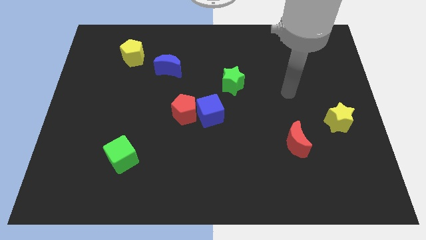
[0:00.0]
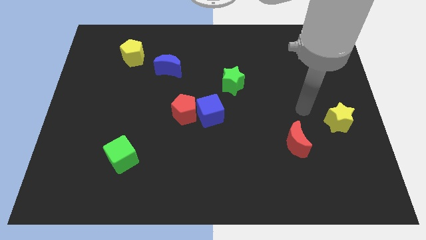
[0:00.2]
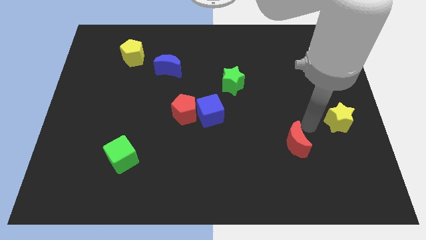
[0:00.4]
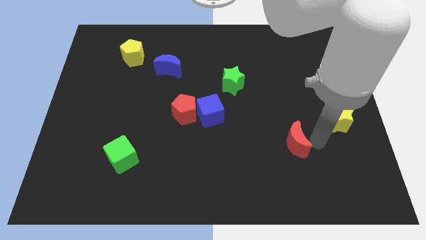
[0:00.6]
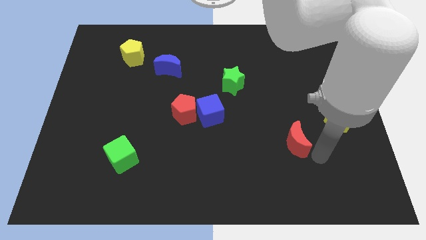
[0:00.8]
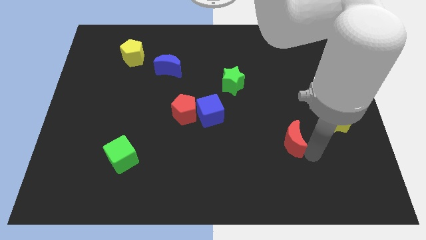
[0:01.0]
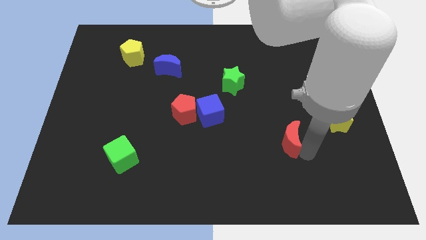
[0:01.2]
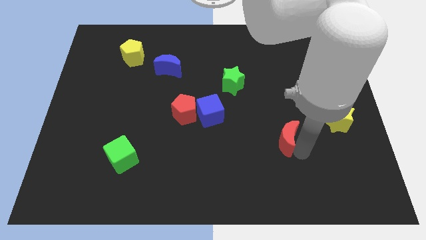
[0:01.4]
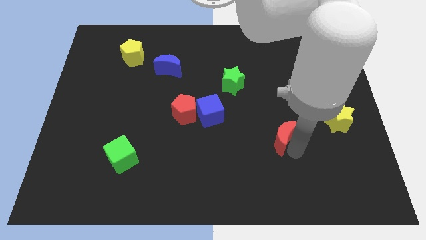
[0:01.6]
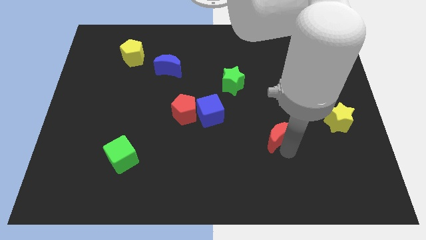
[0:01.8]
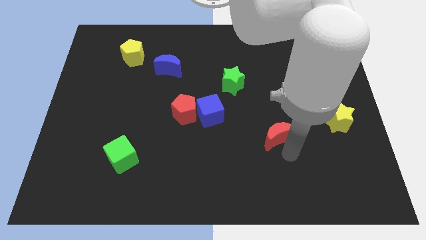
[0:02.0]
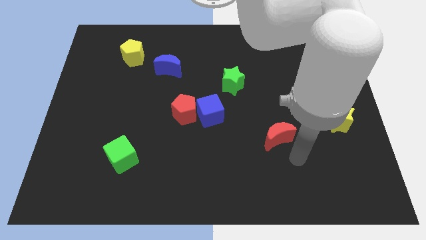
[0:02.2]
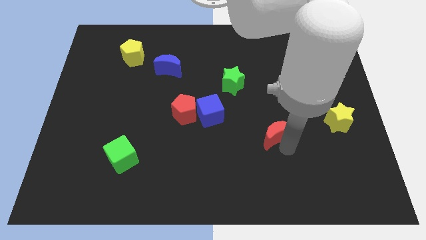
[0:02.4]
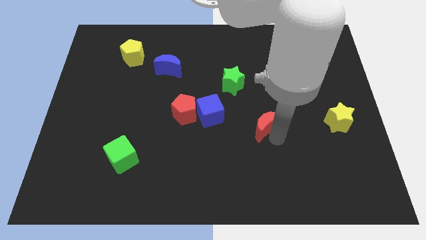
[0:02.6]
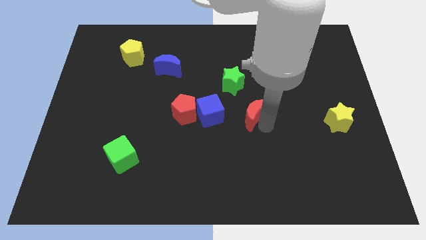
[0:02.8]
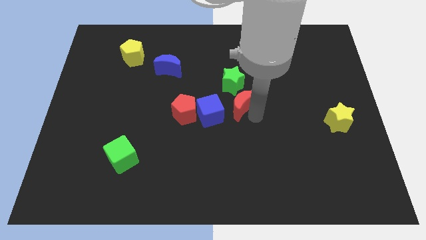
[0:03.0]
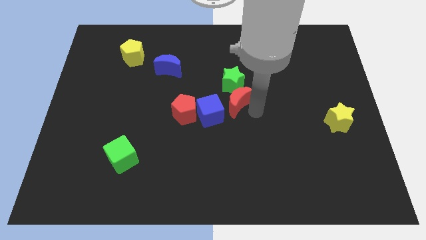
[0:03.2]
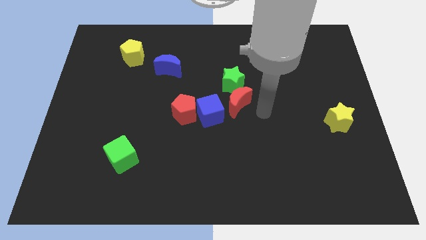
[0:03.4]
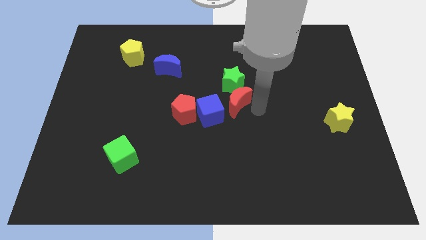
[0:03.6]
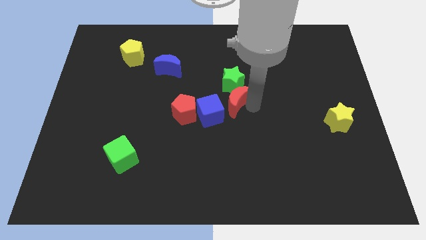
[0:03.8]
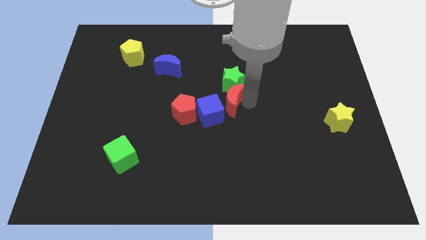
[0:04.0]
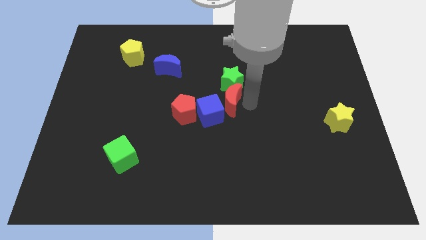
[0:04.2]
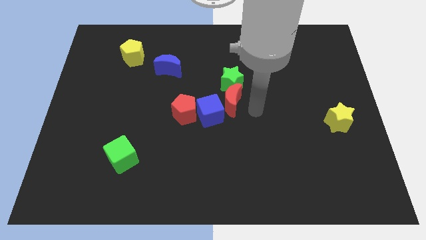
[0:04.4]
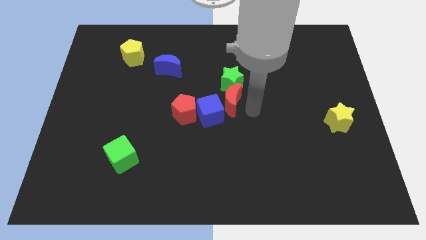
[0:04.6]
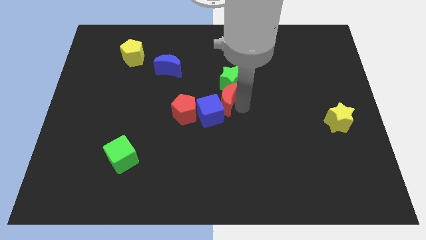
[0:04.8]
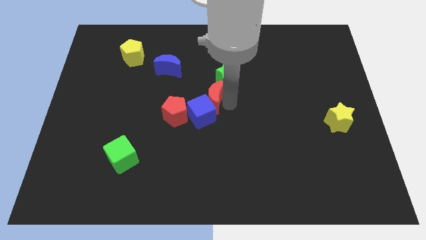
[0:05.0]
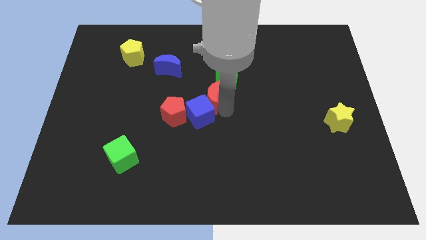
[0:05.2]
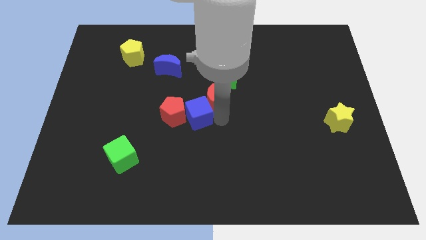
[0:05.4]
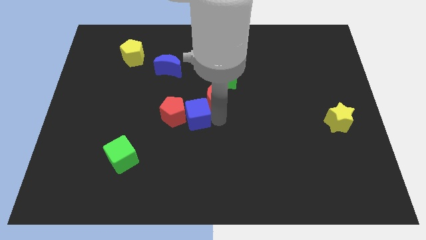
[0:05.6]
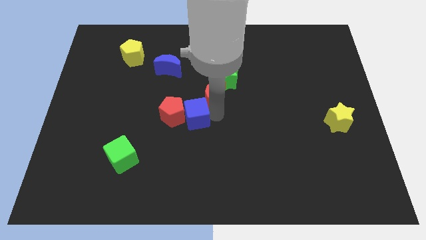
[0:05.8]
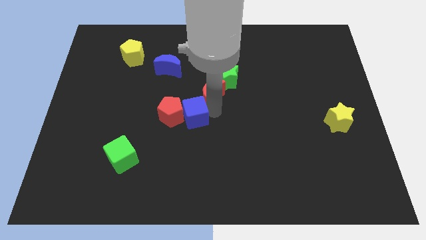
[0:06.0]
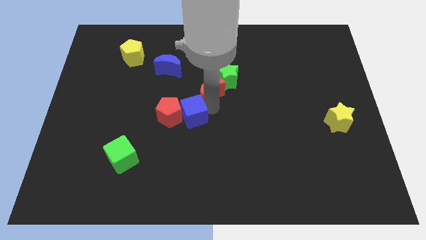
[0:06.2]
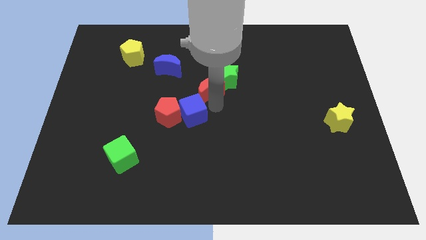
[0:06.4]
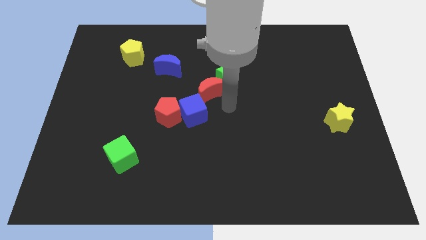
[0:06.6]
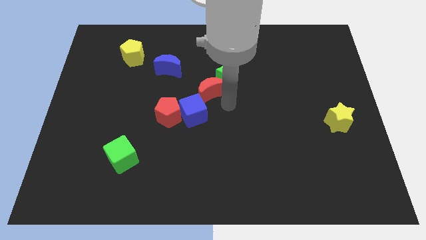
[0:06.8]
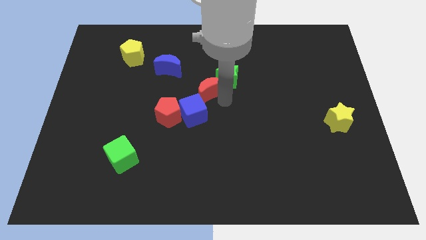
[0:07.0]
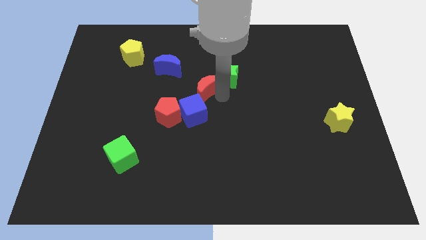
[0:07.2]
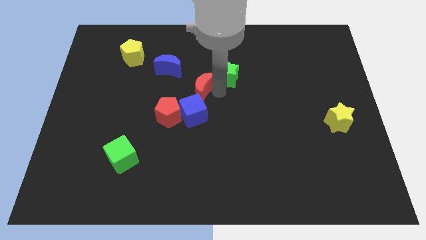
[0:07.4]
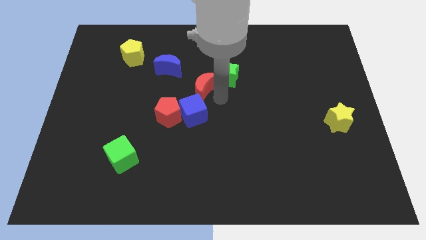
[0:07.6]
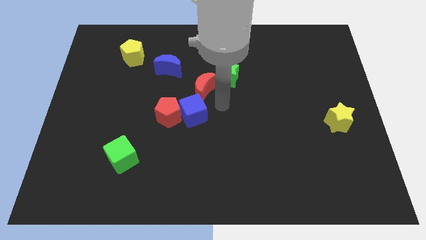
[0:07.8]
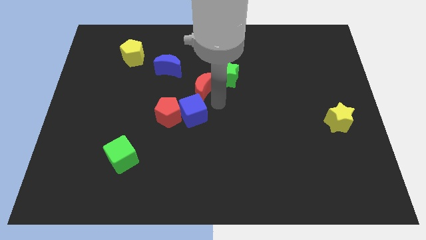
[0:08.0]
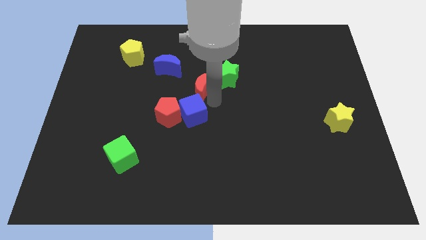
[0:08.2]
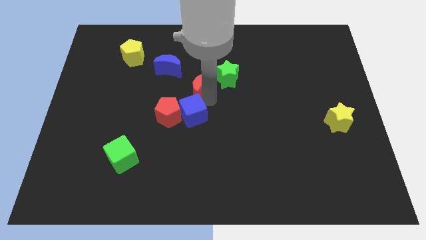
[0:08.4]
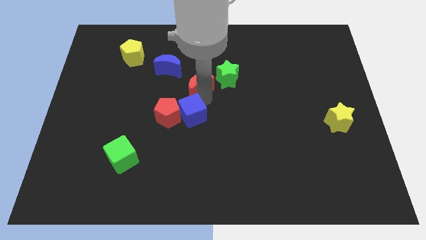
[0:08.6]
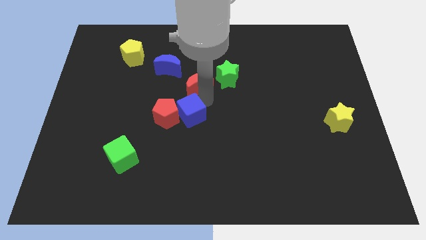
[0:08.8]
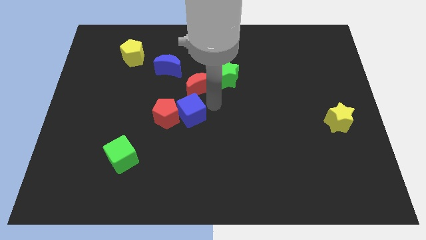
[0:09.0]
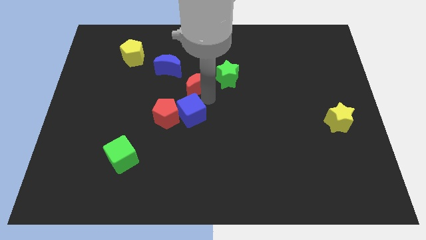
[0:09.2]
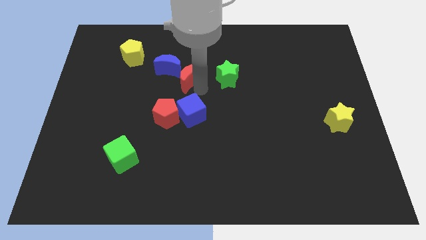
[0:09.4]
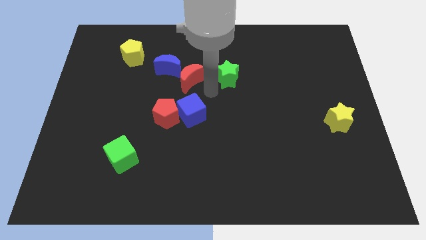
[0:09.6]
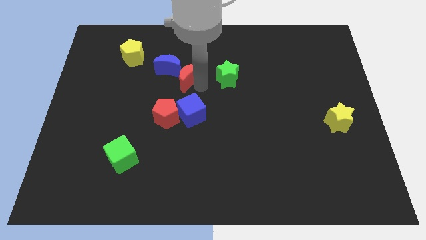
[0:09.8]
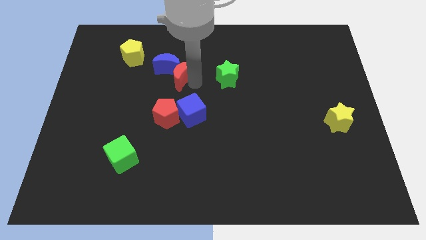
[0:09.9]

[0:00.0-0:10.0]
put the red moon close to the blue moon

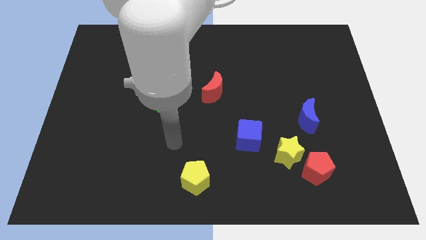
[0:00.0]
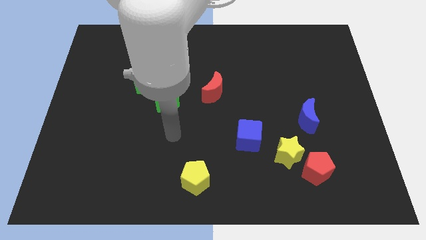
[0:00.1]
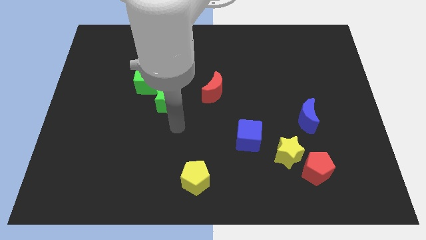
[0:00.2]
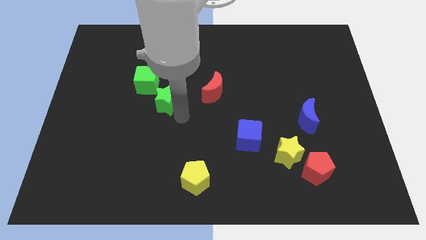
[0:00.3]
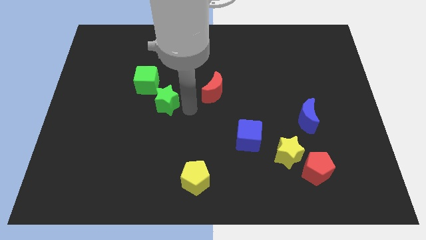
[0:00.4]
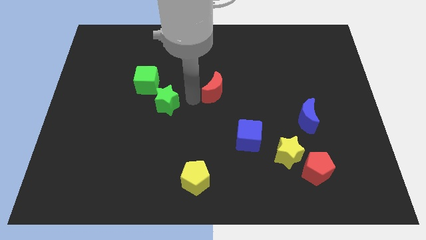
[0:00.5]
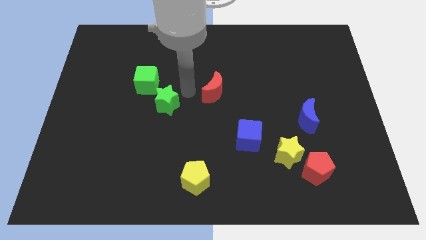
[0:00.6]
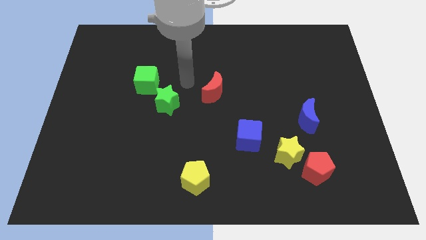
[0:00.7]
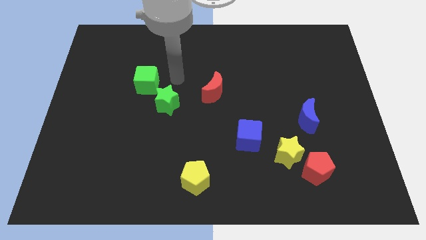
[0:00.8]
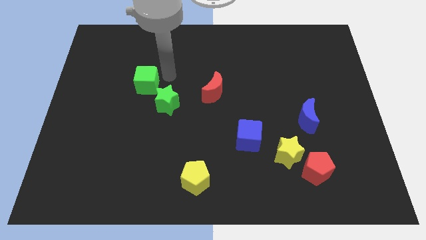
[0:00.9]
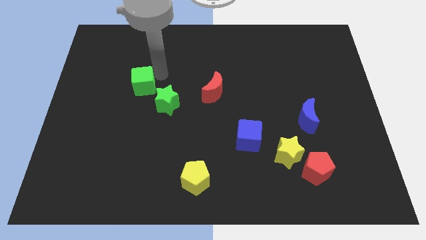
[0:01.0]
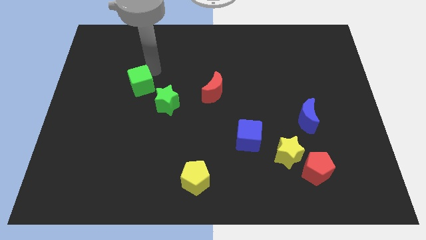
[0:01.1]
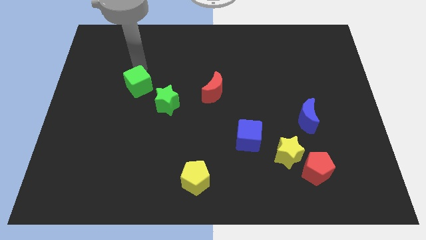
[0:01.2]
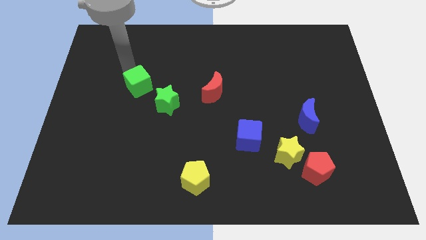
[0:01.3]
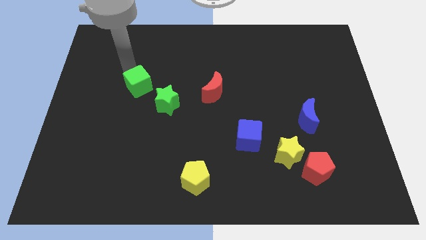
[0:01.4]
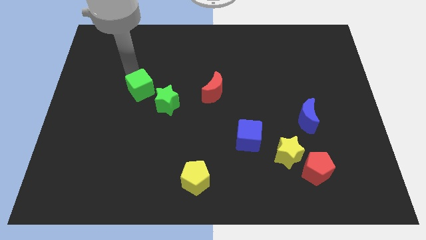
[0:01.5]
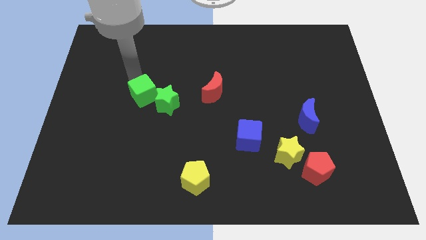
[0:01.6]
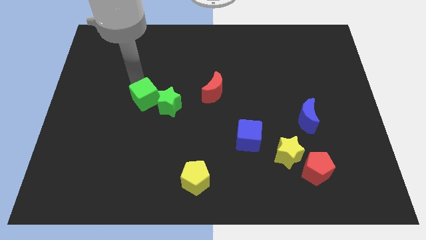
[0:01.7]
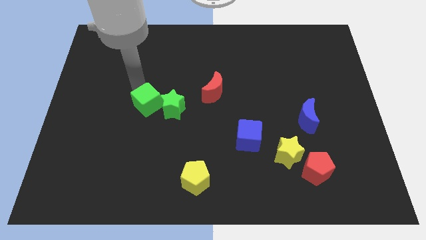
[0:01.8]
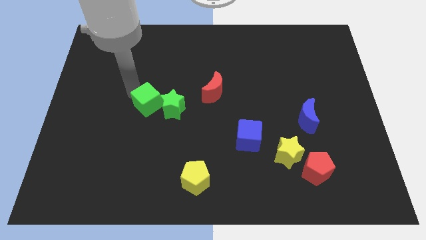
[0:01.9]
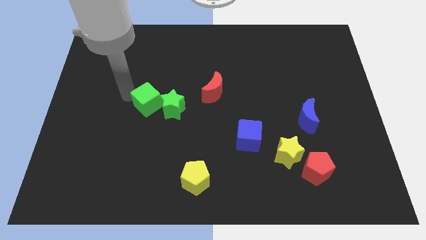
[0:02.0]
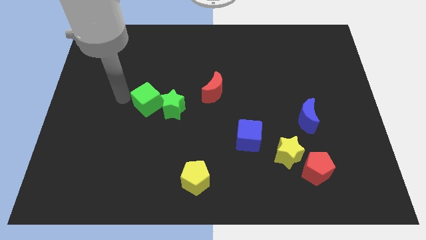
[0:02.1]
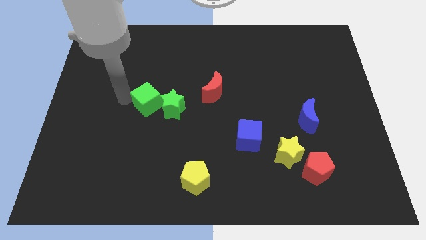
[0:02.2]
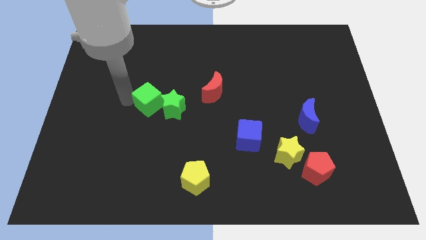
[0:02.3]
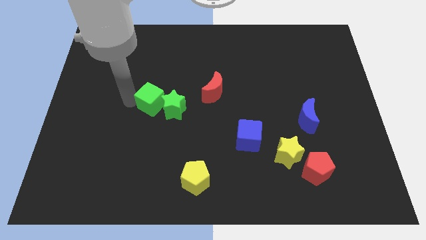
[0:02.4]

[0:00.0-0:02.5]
put the green cube next to the green star
